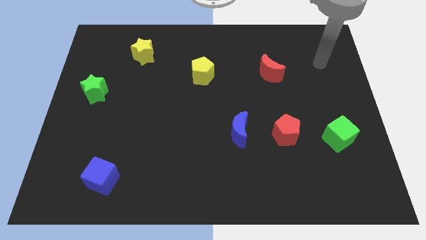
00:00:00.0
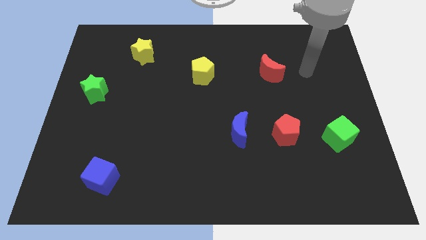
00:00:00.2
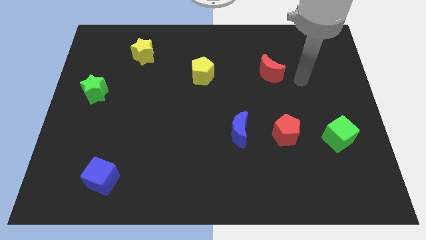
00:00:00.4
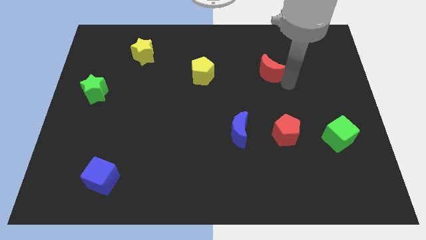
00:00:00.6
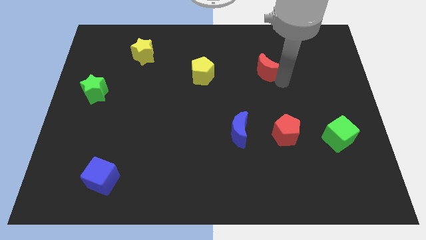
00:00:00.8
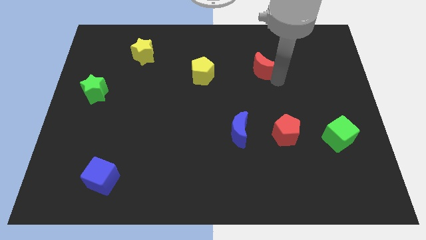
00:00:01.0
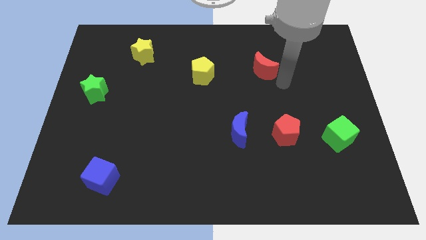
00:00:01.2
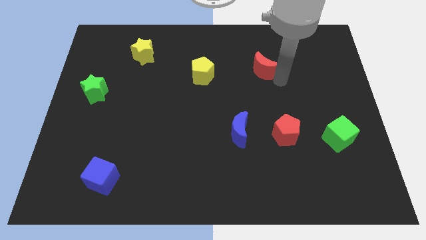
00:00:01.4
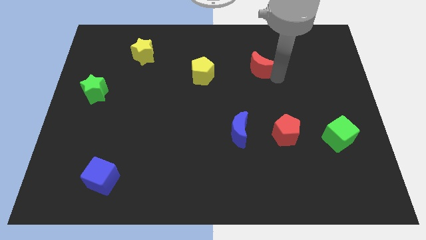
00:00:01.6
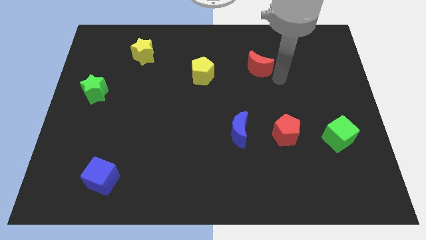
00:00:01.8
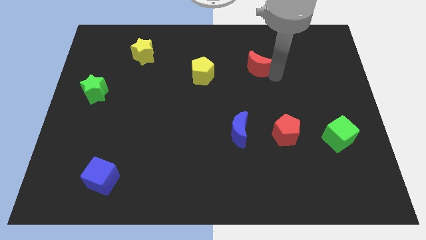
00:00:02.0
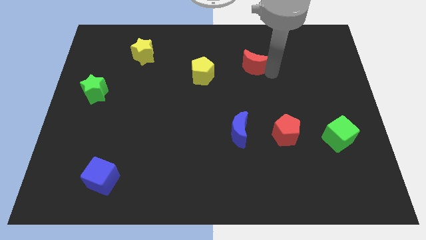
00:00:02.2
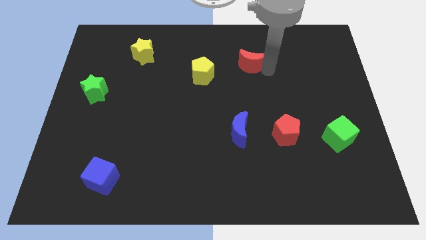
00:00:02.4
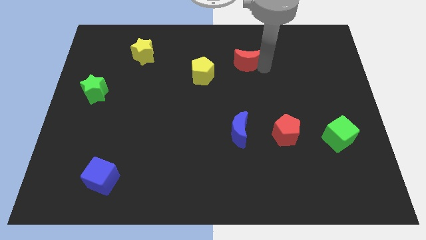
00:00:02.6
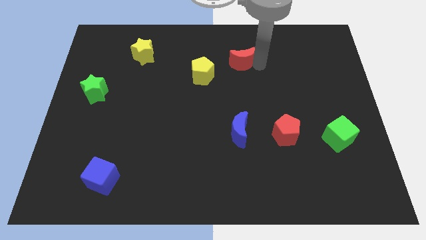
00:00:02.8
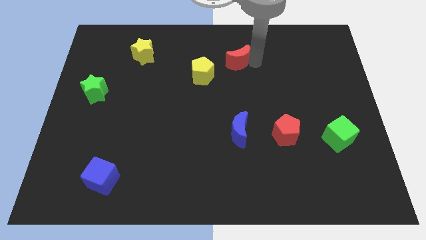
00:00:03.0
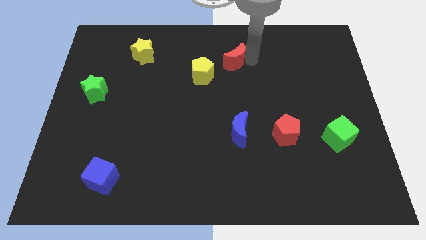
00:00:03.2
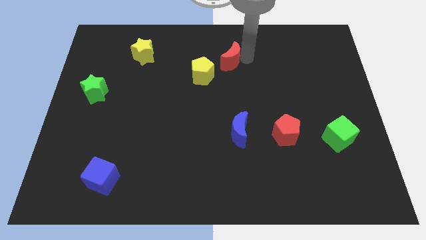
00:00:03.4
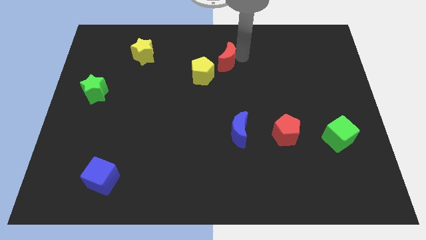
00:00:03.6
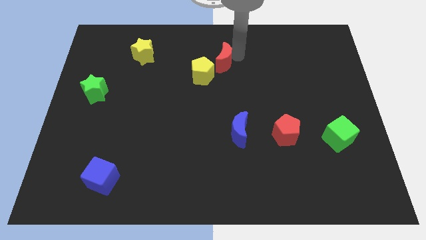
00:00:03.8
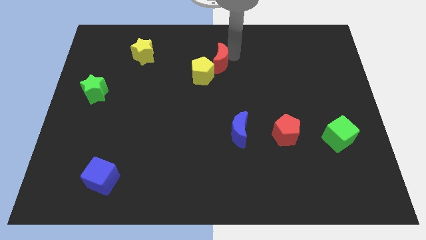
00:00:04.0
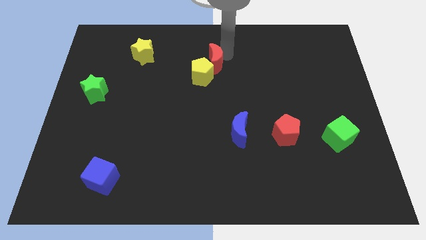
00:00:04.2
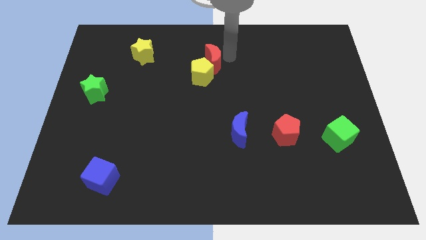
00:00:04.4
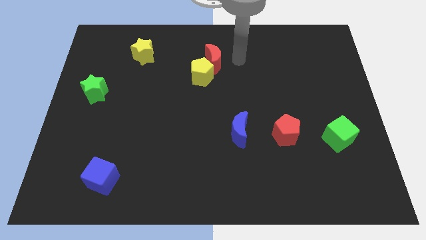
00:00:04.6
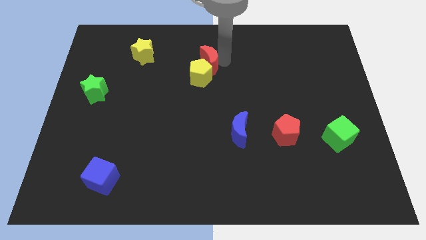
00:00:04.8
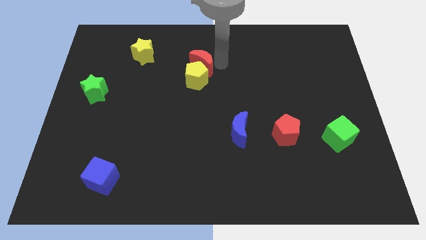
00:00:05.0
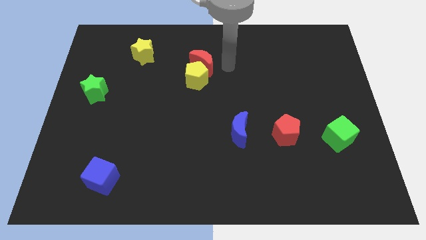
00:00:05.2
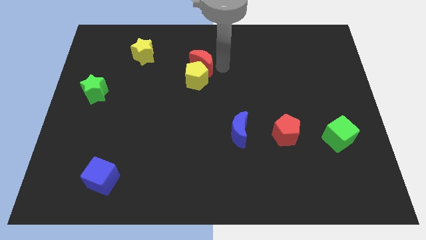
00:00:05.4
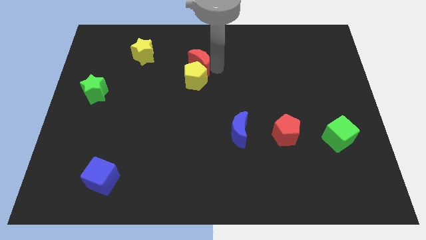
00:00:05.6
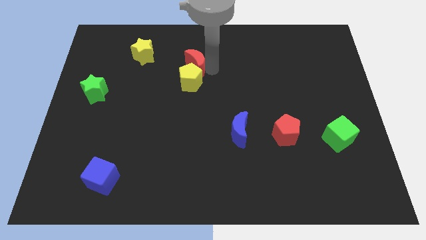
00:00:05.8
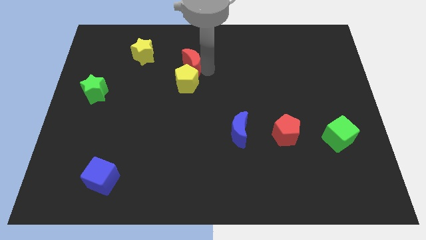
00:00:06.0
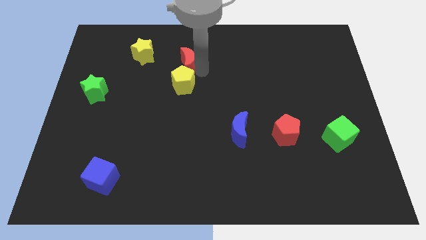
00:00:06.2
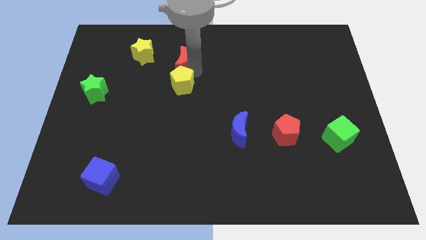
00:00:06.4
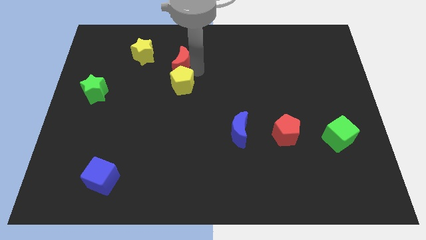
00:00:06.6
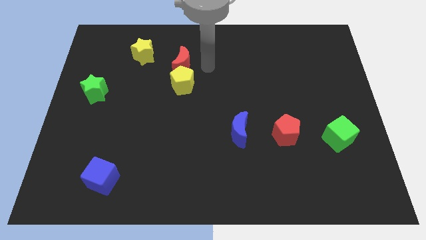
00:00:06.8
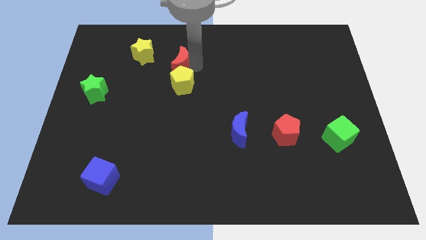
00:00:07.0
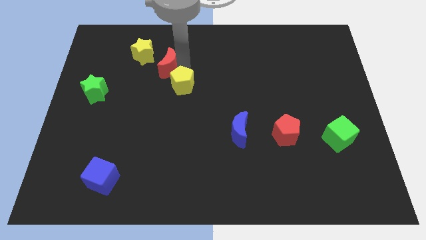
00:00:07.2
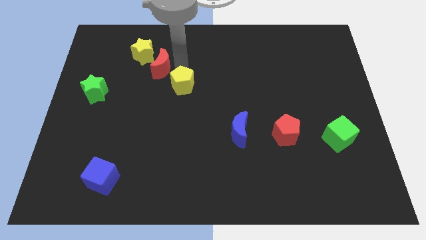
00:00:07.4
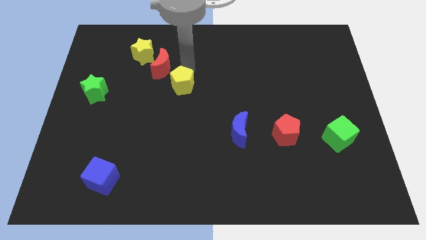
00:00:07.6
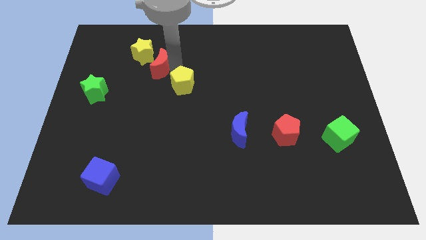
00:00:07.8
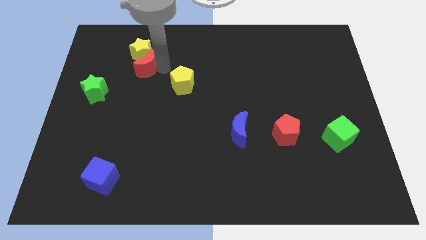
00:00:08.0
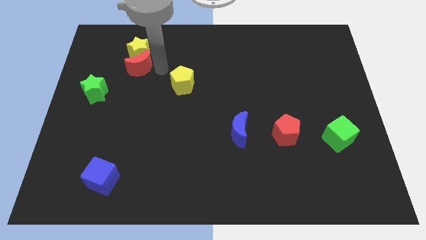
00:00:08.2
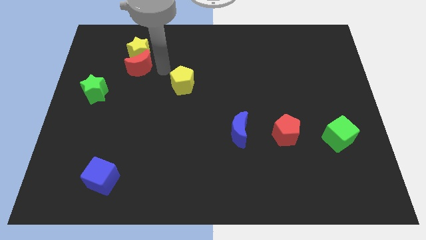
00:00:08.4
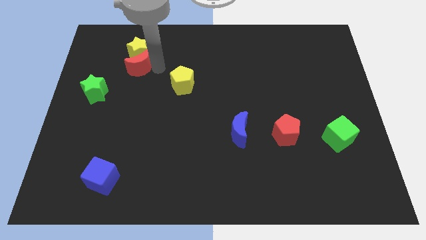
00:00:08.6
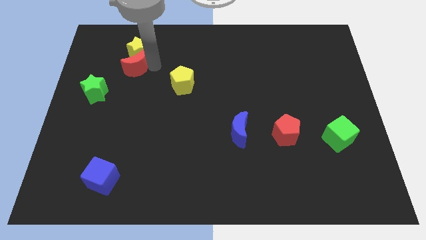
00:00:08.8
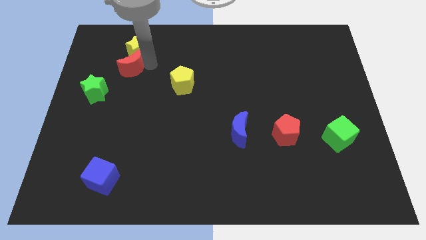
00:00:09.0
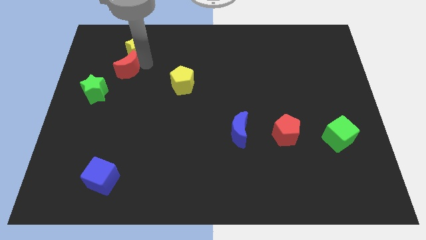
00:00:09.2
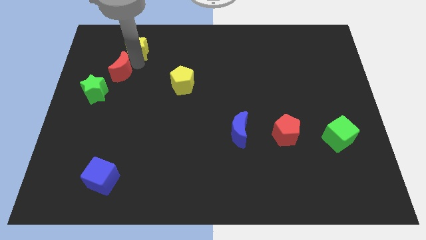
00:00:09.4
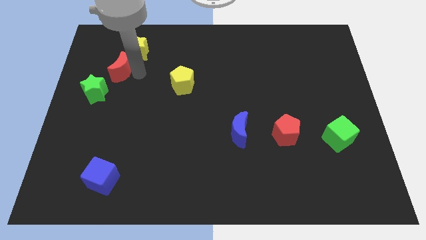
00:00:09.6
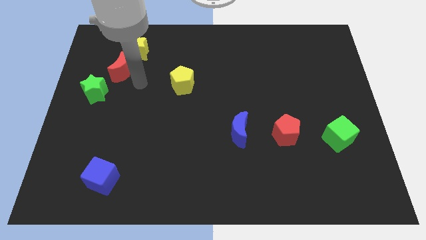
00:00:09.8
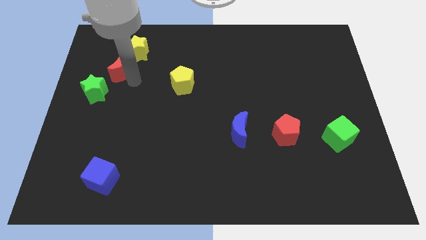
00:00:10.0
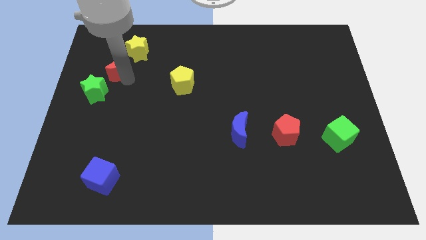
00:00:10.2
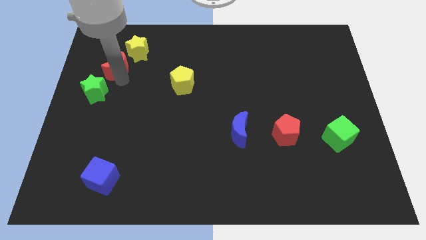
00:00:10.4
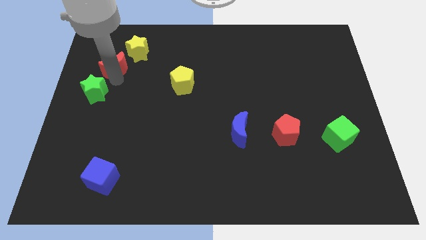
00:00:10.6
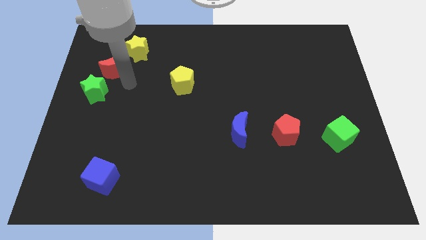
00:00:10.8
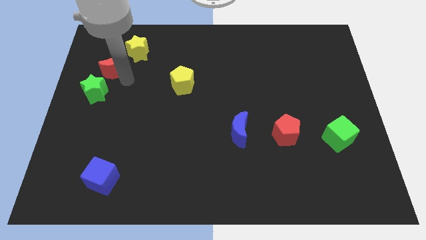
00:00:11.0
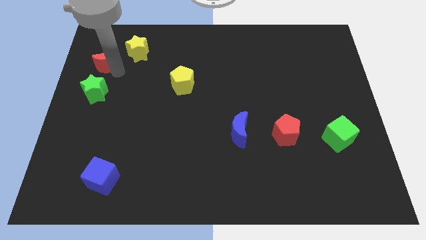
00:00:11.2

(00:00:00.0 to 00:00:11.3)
put the red moon left of the yellow star

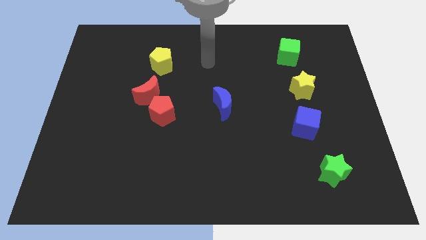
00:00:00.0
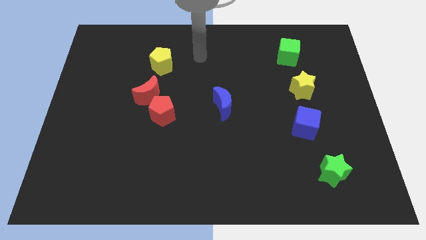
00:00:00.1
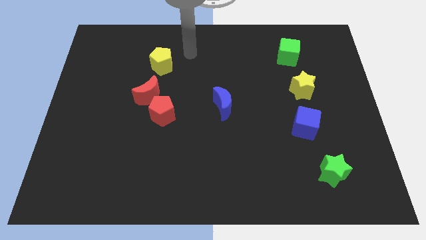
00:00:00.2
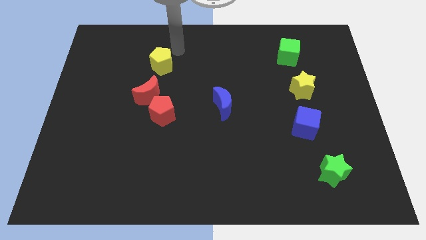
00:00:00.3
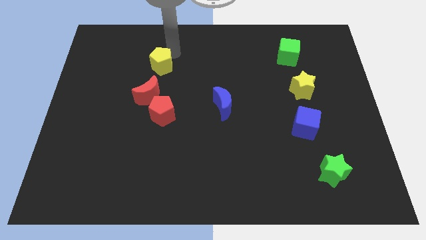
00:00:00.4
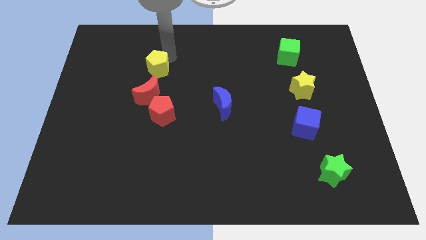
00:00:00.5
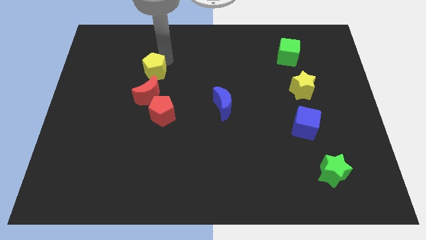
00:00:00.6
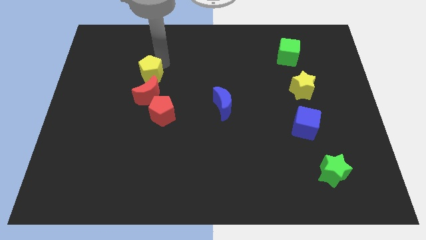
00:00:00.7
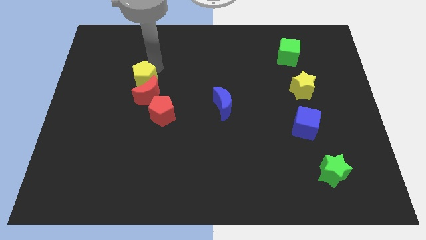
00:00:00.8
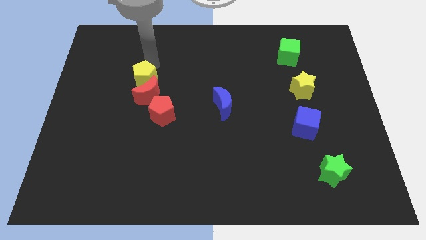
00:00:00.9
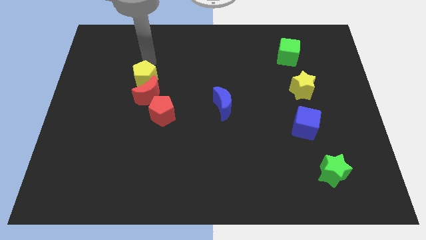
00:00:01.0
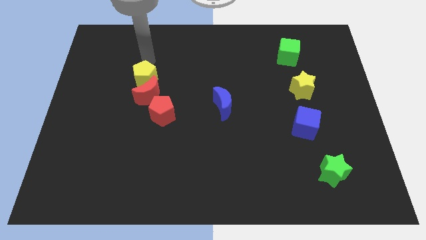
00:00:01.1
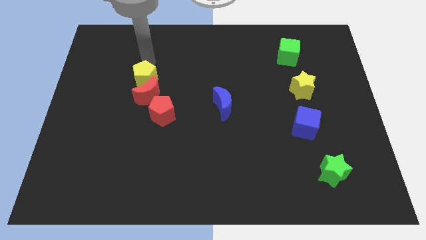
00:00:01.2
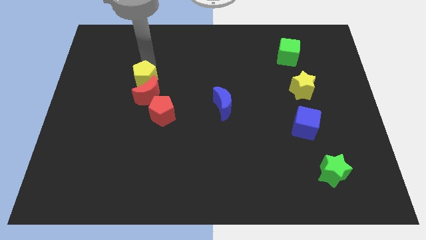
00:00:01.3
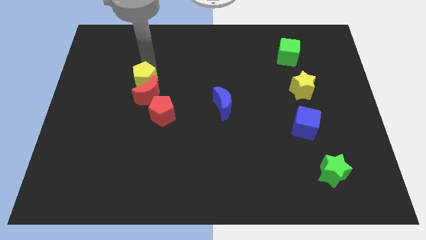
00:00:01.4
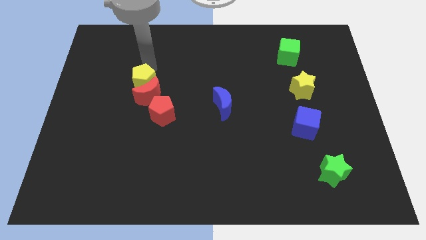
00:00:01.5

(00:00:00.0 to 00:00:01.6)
push the yellow pentagon diagonally up and to the left of the red pentagon

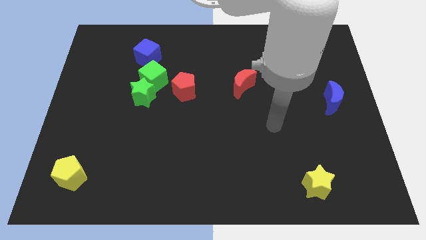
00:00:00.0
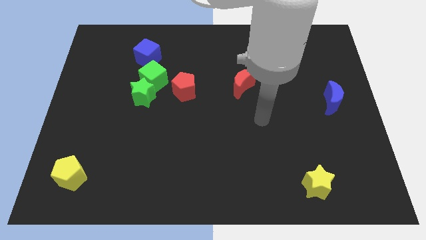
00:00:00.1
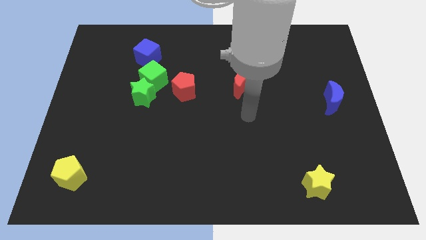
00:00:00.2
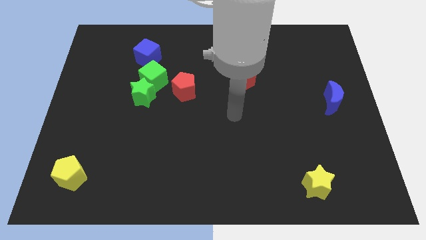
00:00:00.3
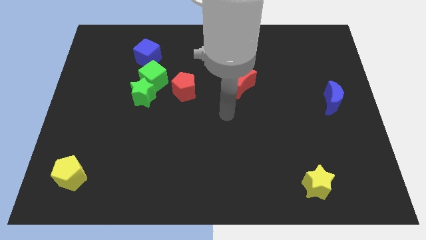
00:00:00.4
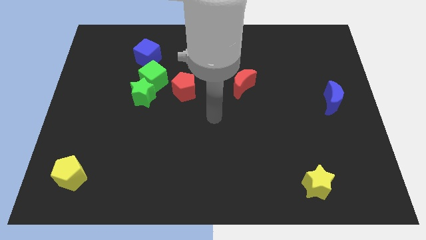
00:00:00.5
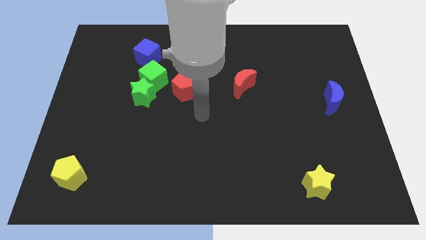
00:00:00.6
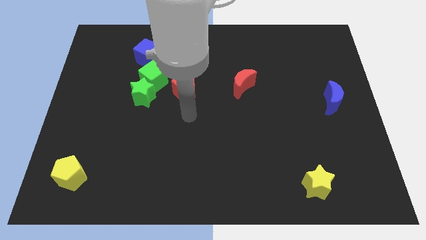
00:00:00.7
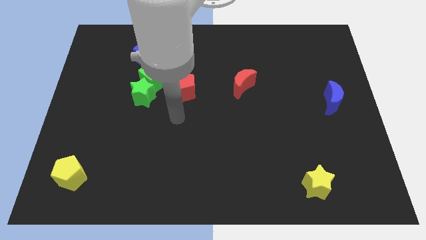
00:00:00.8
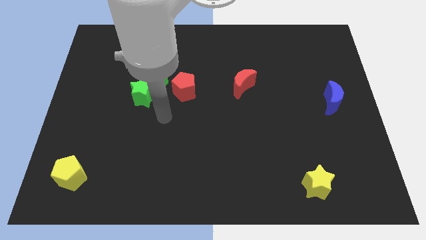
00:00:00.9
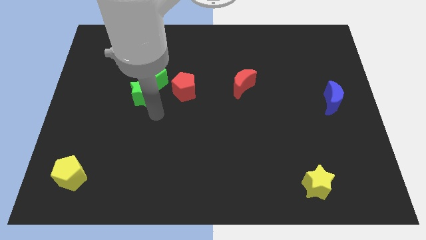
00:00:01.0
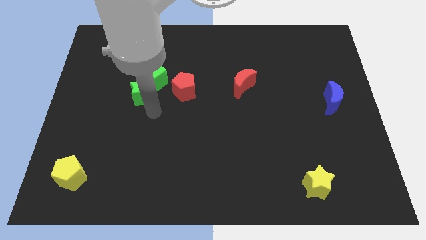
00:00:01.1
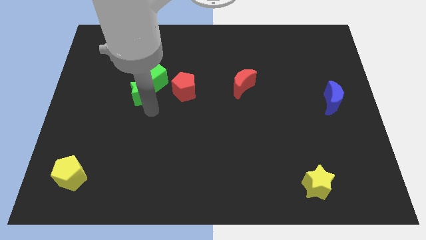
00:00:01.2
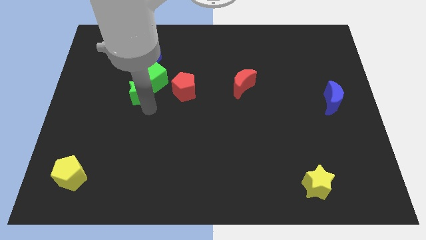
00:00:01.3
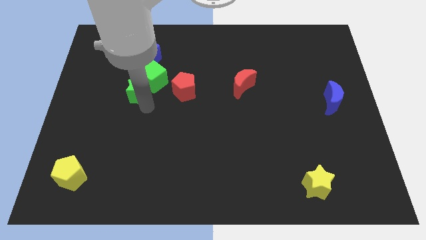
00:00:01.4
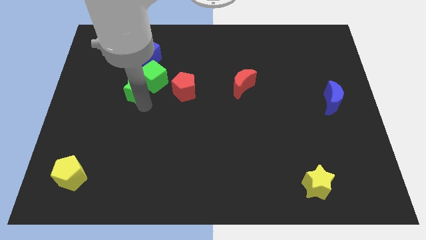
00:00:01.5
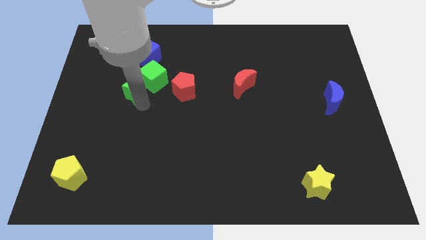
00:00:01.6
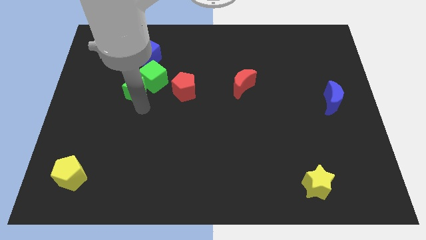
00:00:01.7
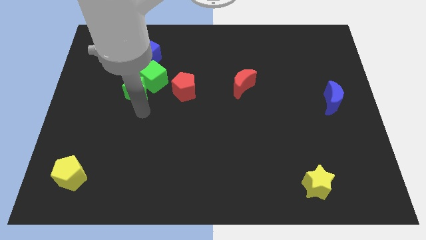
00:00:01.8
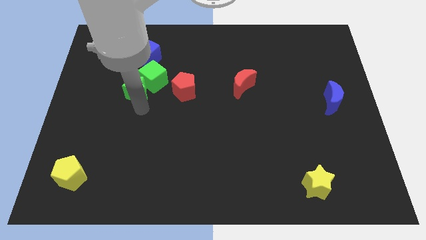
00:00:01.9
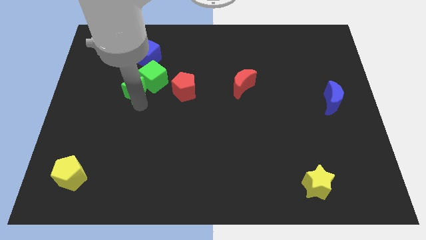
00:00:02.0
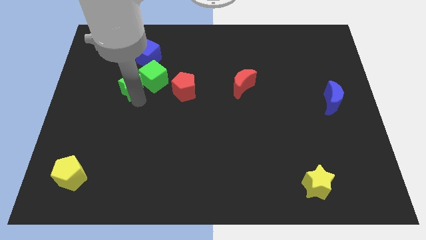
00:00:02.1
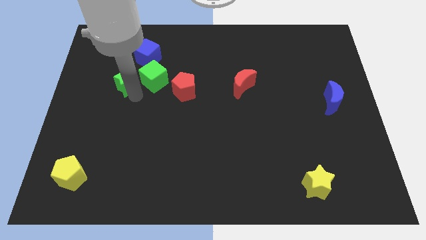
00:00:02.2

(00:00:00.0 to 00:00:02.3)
move the green star diagonally down and to the left of the blue cube
